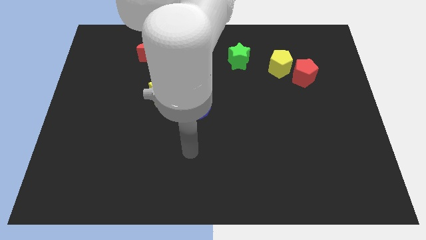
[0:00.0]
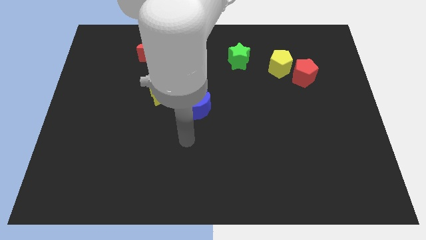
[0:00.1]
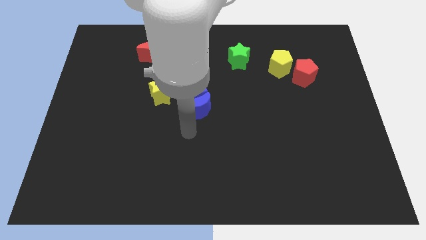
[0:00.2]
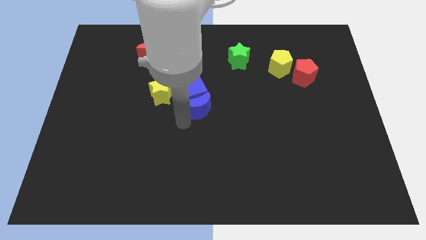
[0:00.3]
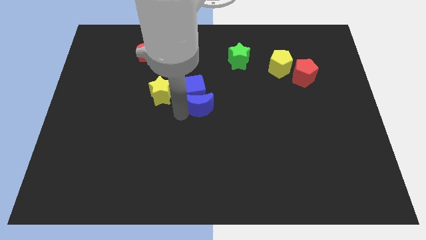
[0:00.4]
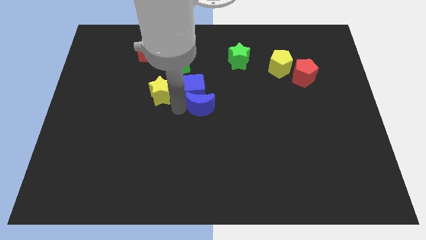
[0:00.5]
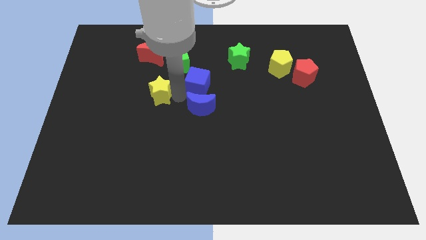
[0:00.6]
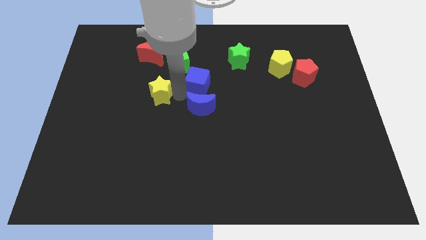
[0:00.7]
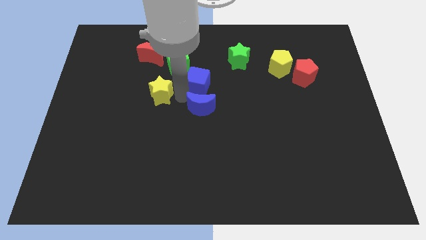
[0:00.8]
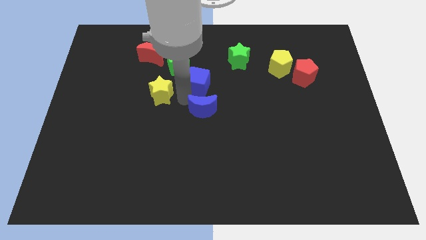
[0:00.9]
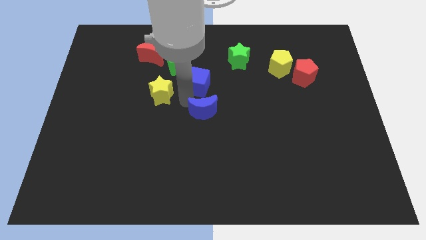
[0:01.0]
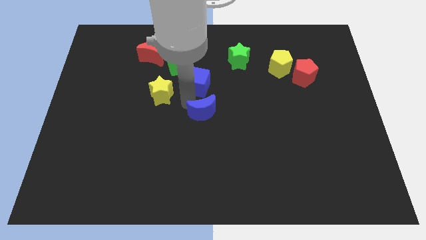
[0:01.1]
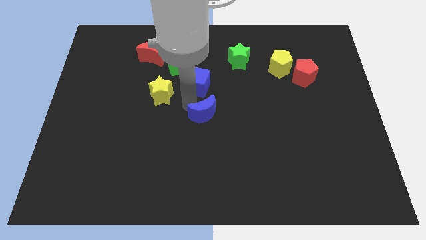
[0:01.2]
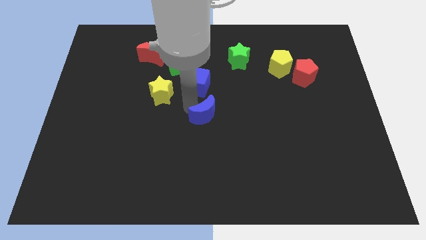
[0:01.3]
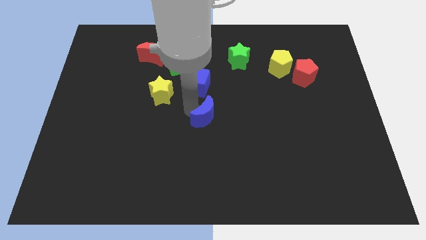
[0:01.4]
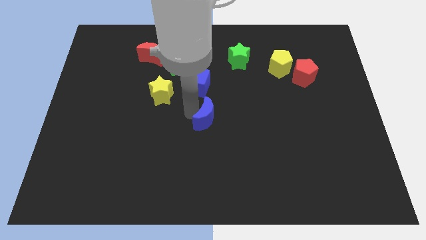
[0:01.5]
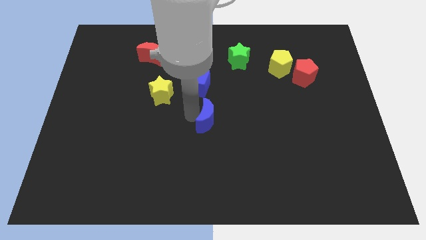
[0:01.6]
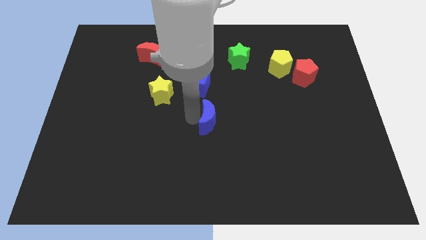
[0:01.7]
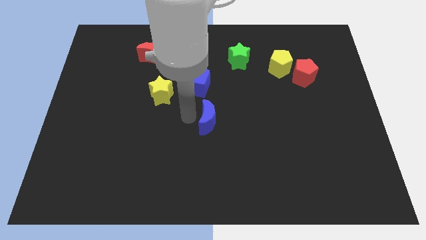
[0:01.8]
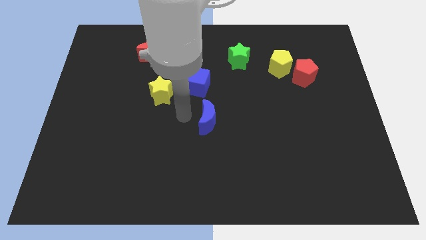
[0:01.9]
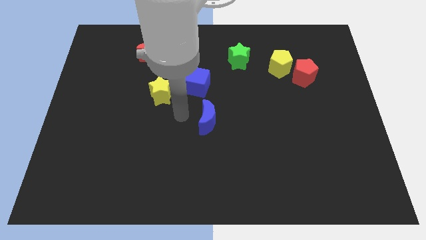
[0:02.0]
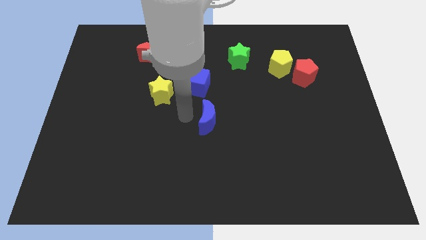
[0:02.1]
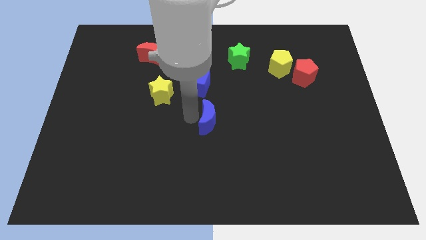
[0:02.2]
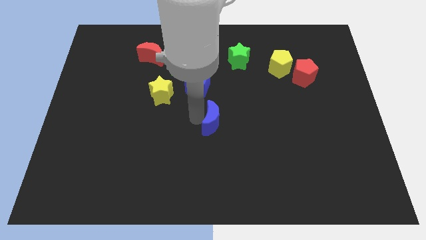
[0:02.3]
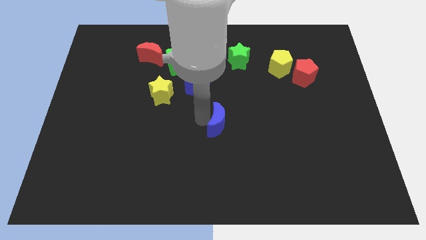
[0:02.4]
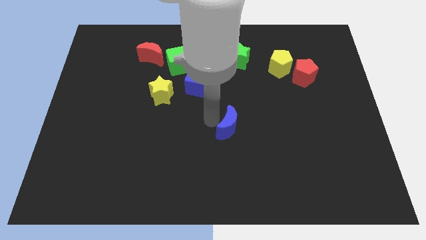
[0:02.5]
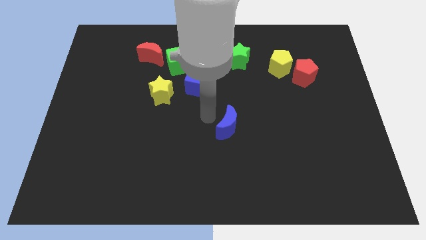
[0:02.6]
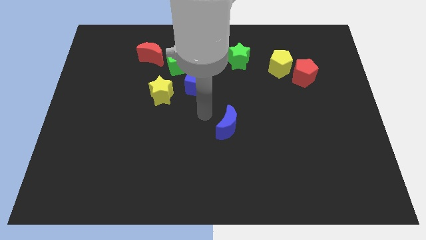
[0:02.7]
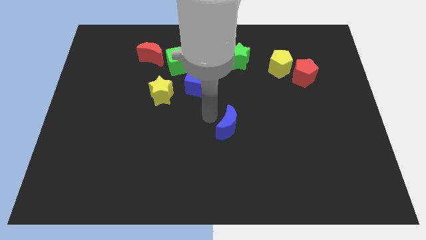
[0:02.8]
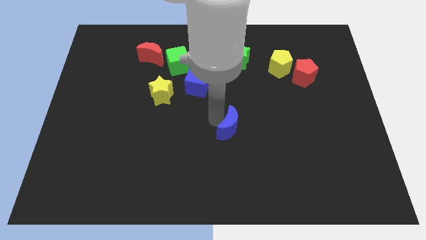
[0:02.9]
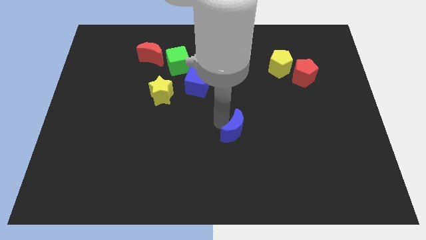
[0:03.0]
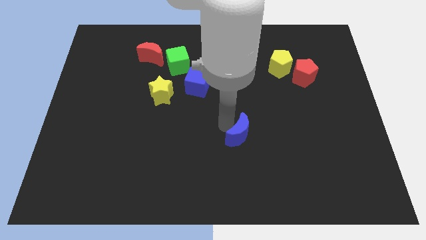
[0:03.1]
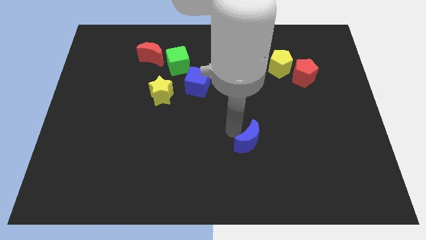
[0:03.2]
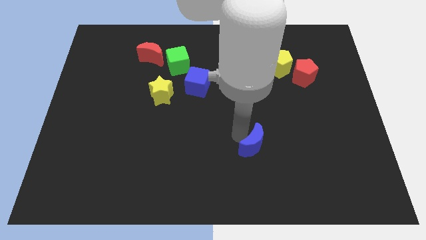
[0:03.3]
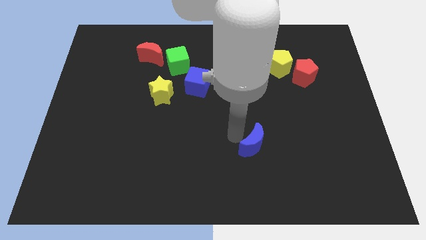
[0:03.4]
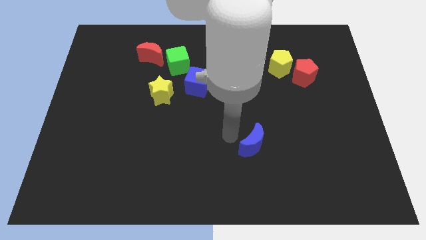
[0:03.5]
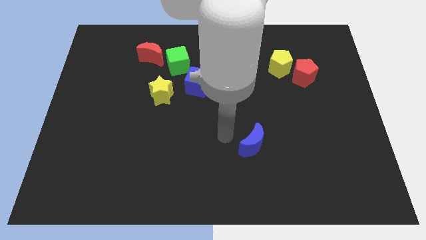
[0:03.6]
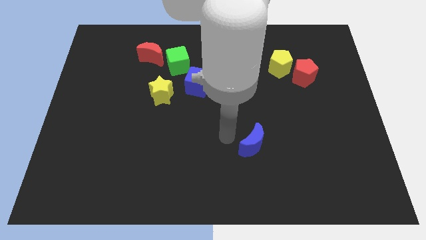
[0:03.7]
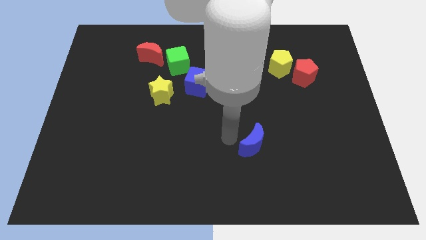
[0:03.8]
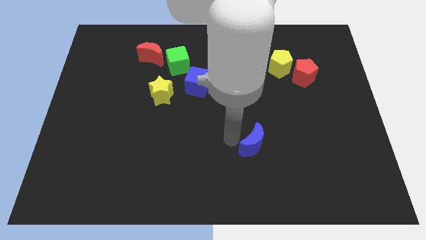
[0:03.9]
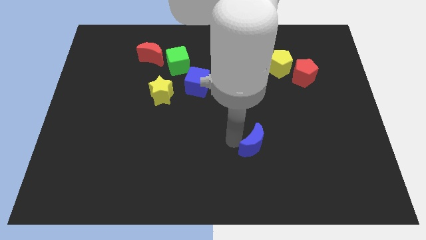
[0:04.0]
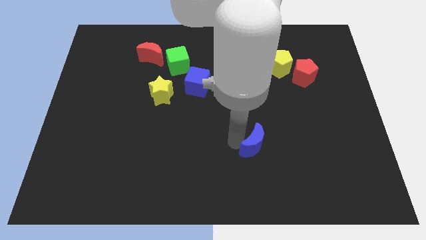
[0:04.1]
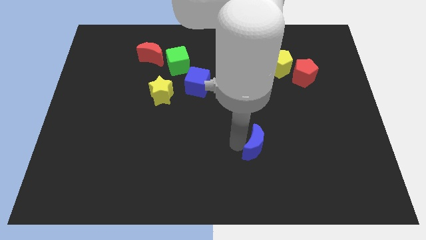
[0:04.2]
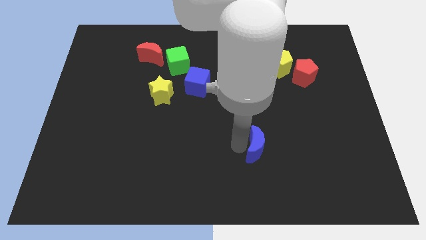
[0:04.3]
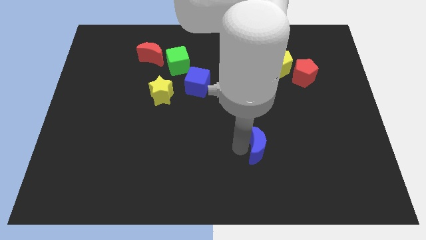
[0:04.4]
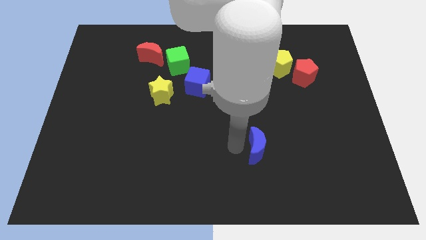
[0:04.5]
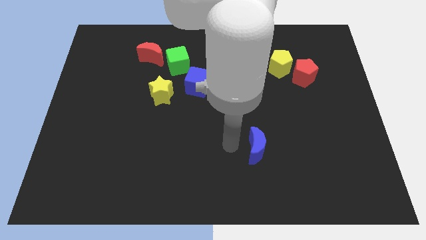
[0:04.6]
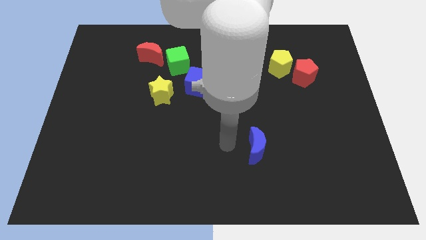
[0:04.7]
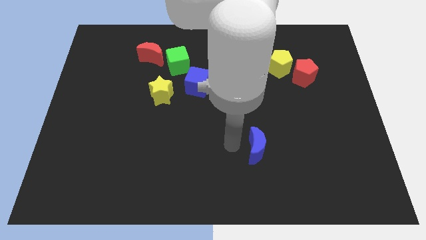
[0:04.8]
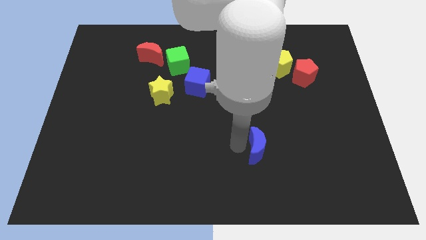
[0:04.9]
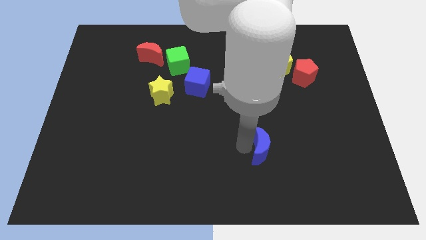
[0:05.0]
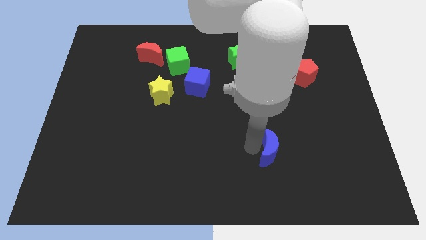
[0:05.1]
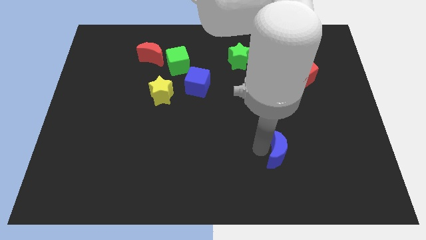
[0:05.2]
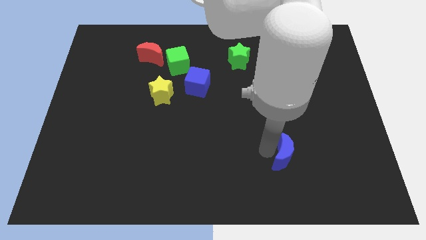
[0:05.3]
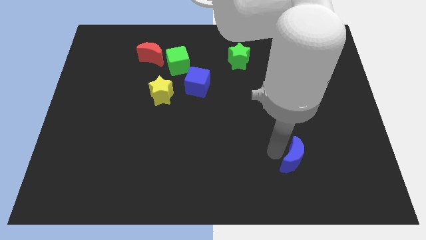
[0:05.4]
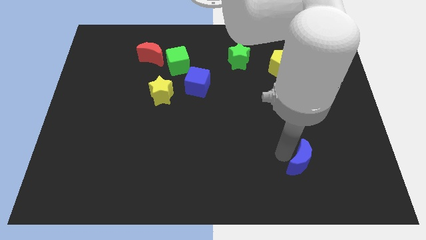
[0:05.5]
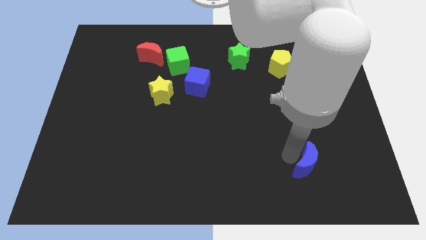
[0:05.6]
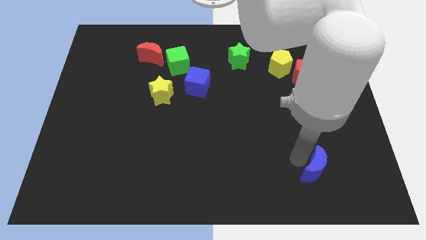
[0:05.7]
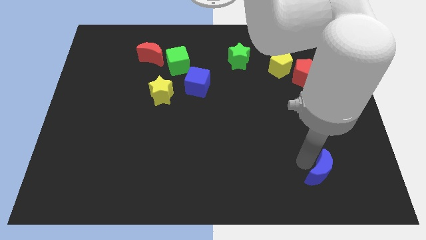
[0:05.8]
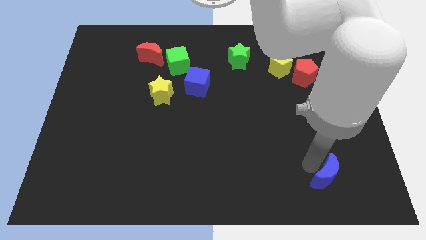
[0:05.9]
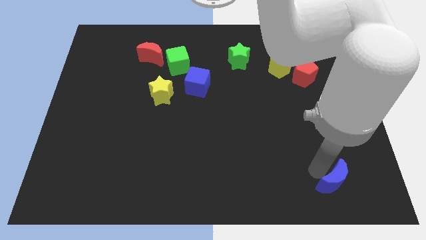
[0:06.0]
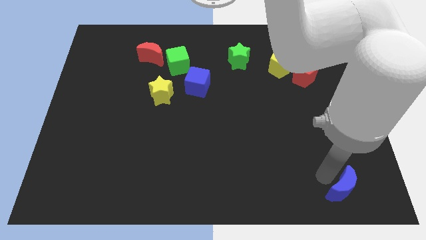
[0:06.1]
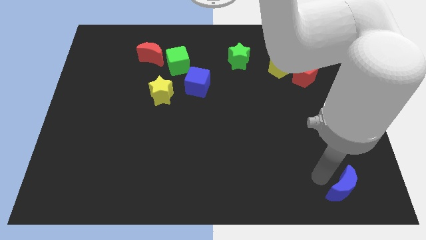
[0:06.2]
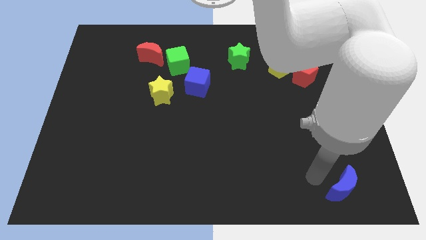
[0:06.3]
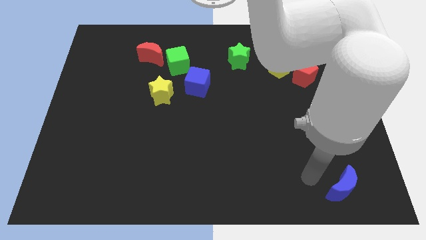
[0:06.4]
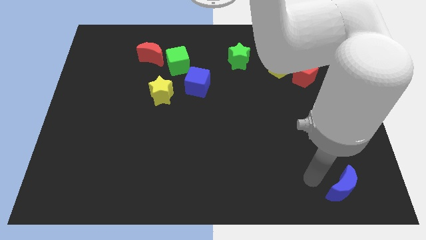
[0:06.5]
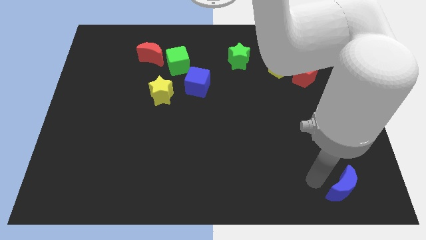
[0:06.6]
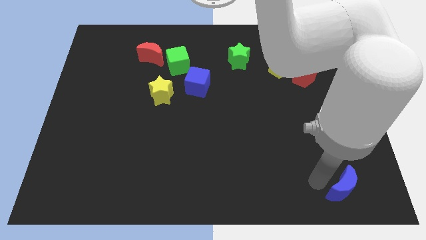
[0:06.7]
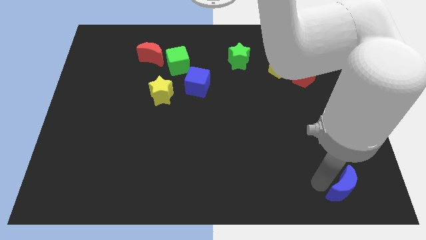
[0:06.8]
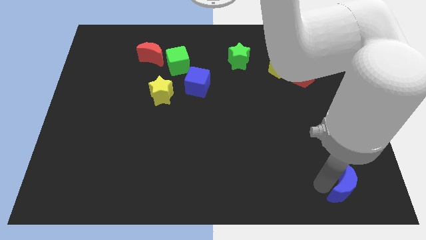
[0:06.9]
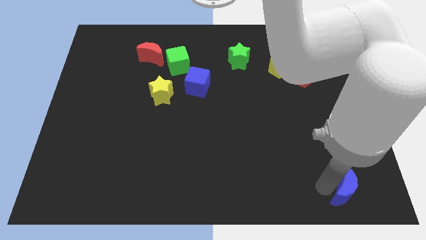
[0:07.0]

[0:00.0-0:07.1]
put the blue moon to the bottom right of the board

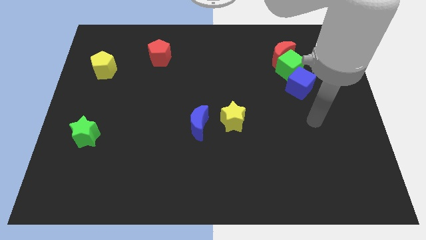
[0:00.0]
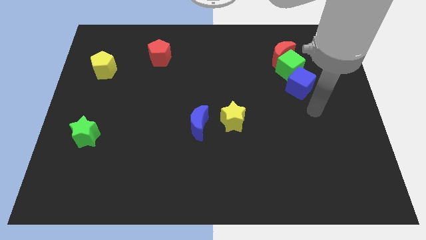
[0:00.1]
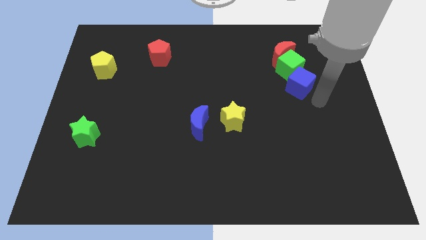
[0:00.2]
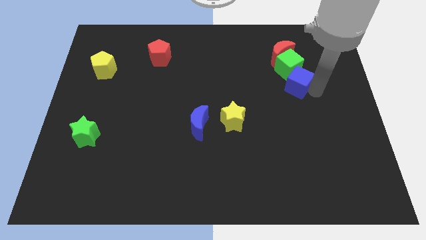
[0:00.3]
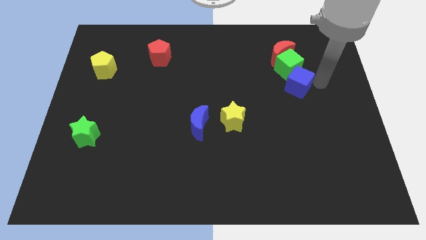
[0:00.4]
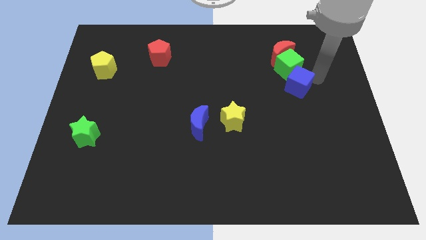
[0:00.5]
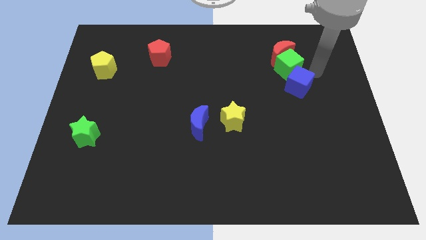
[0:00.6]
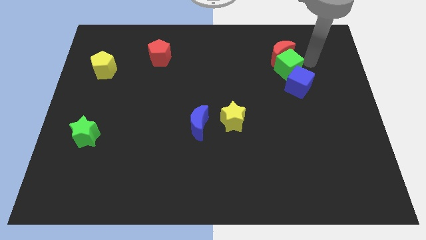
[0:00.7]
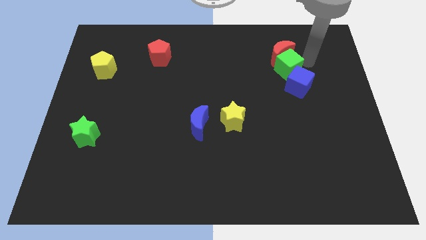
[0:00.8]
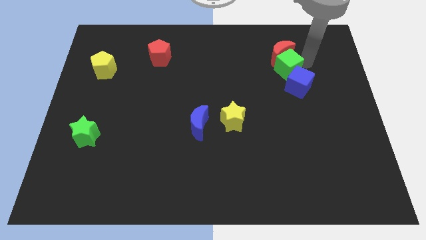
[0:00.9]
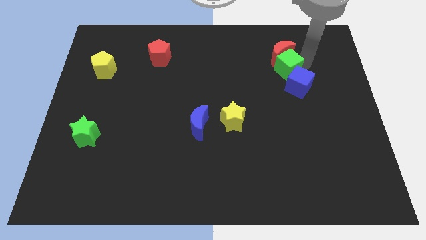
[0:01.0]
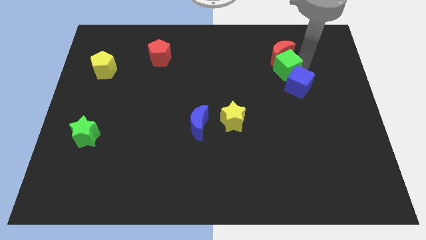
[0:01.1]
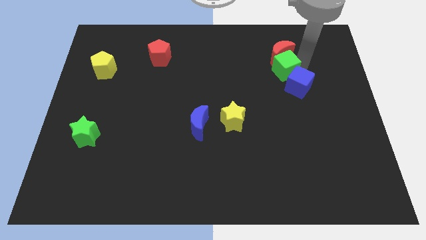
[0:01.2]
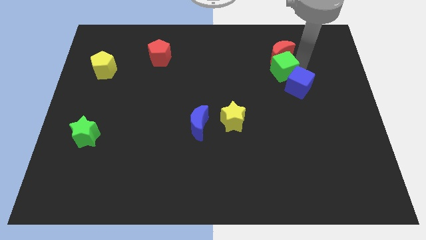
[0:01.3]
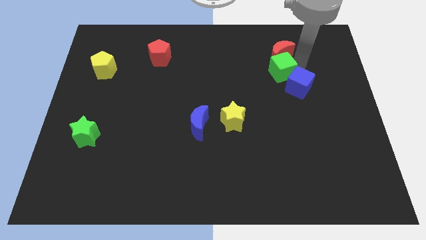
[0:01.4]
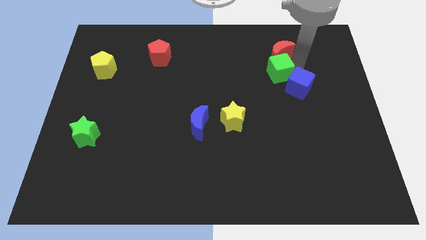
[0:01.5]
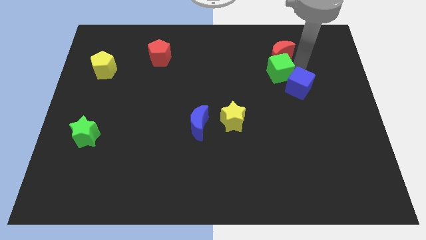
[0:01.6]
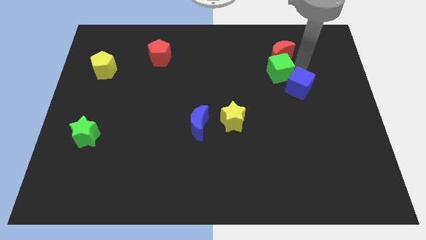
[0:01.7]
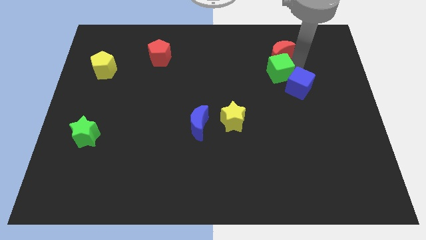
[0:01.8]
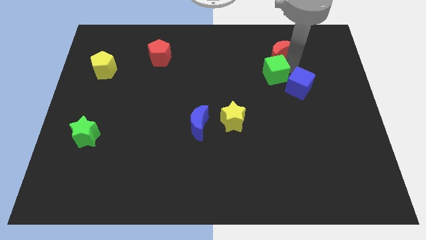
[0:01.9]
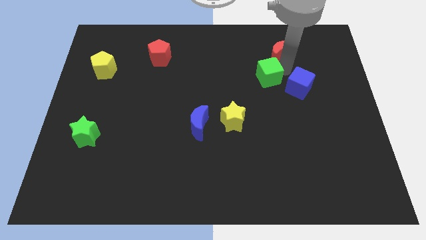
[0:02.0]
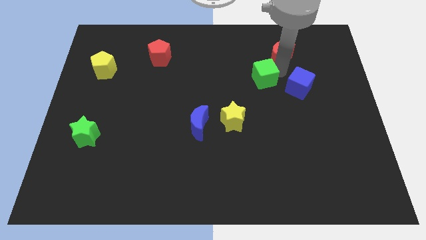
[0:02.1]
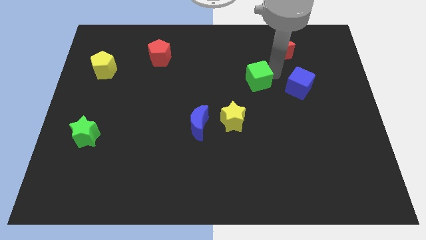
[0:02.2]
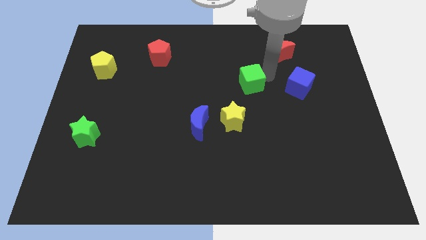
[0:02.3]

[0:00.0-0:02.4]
move the green cube to the center
